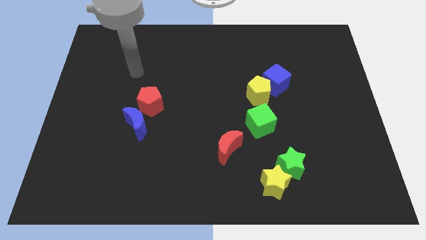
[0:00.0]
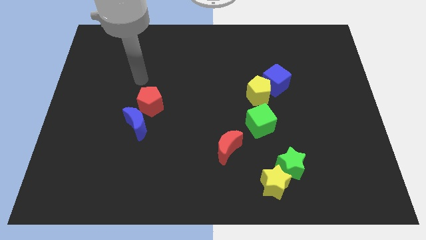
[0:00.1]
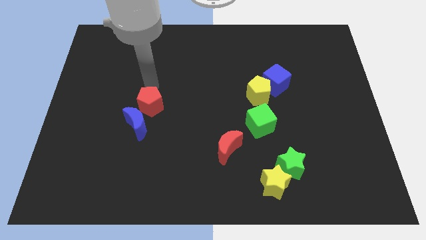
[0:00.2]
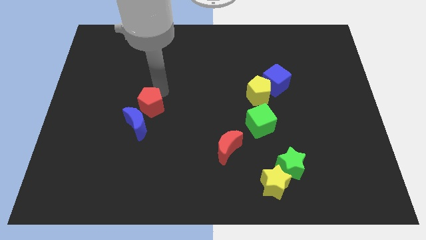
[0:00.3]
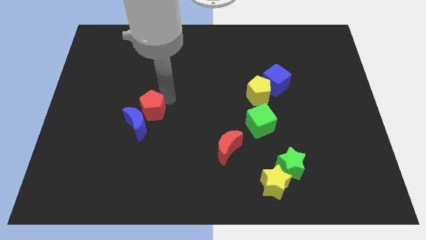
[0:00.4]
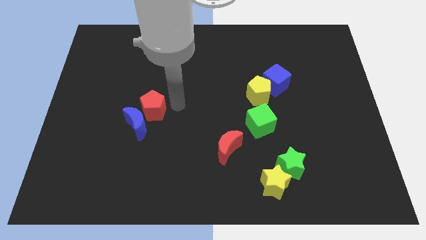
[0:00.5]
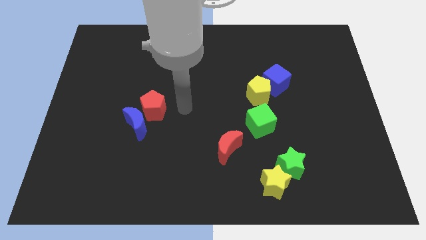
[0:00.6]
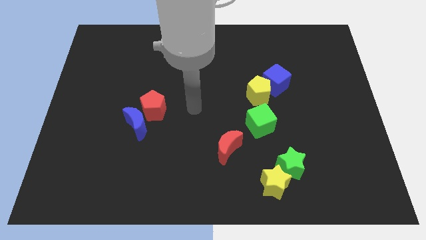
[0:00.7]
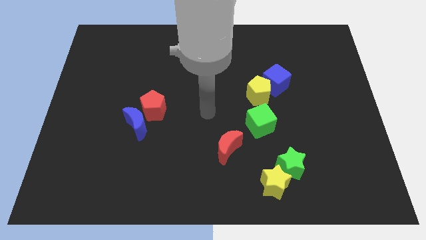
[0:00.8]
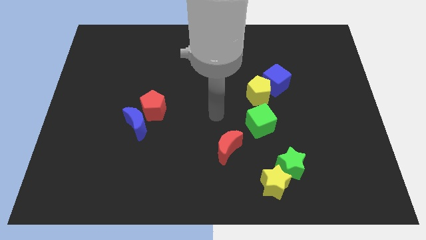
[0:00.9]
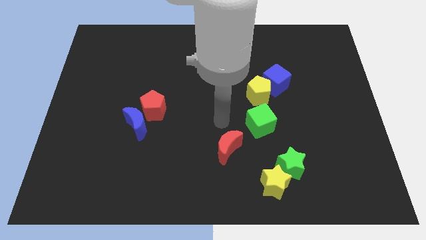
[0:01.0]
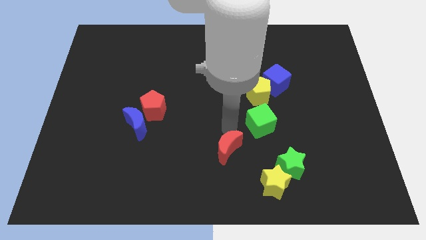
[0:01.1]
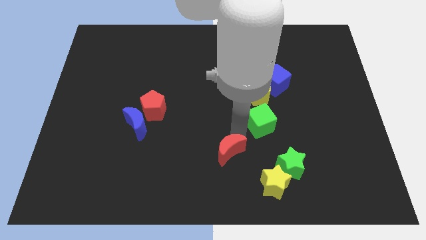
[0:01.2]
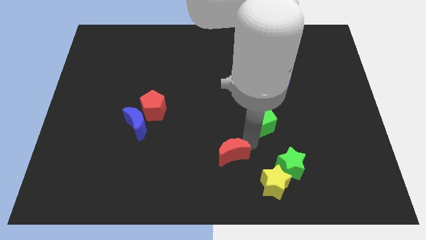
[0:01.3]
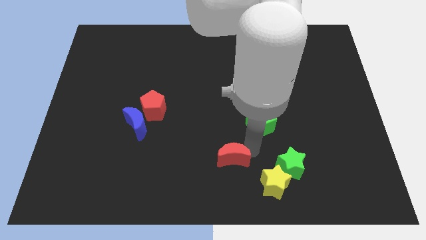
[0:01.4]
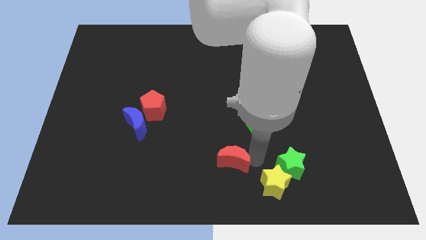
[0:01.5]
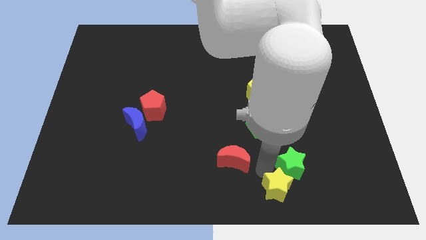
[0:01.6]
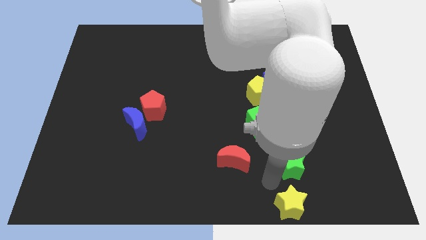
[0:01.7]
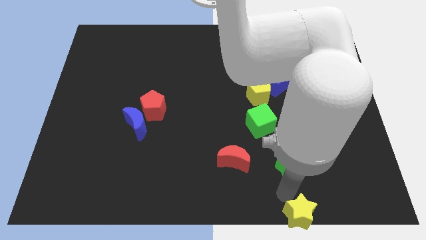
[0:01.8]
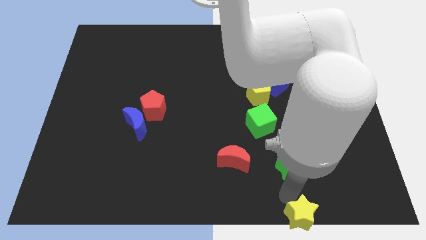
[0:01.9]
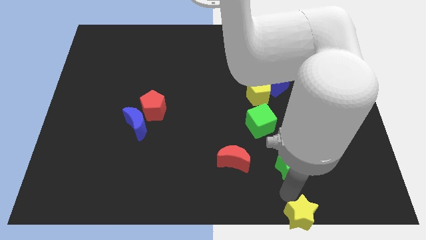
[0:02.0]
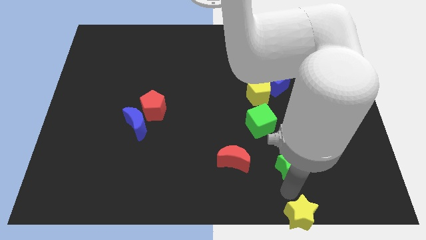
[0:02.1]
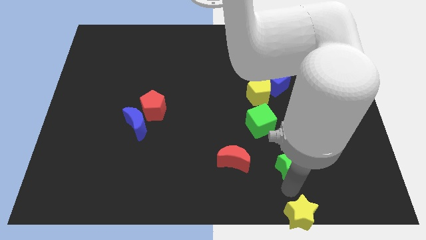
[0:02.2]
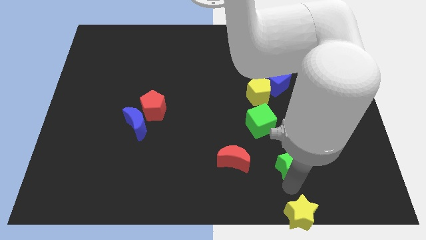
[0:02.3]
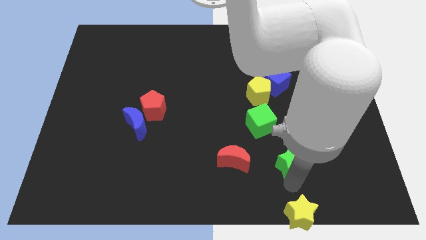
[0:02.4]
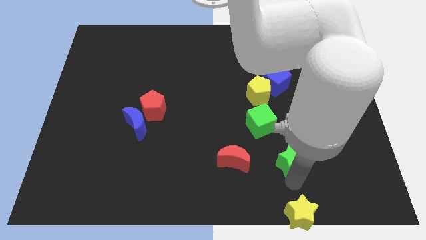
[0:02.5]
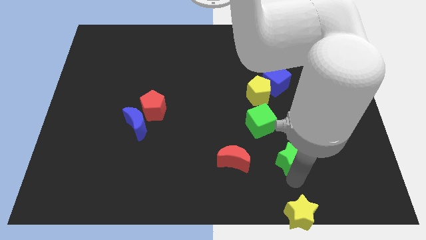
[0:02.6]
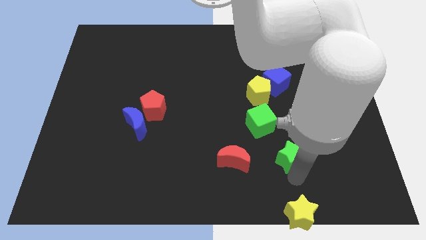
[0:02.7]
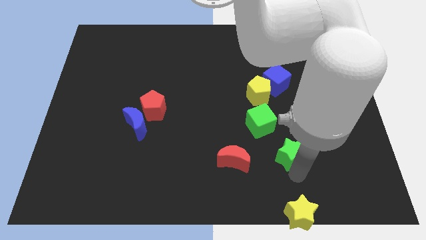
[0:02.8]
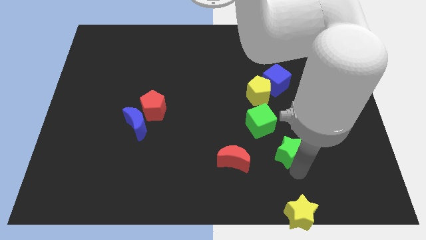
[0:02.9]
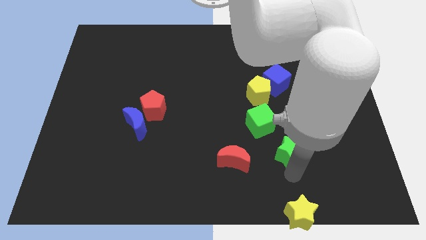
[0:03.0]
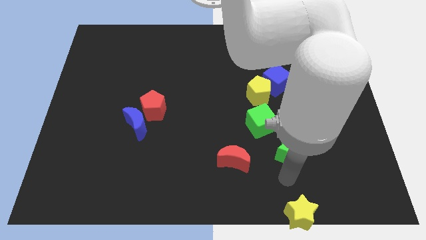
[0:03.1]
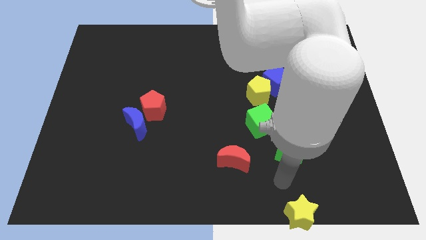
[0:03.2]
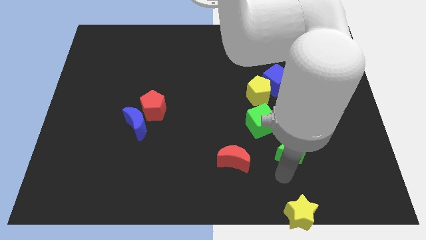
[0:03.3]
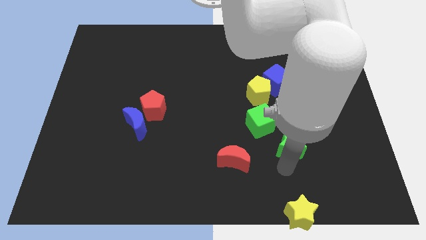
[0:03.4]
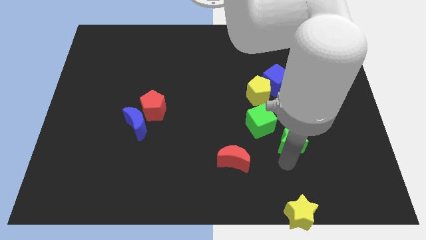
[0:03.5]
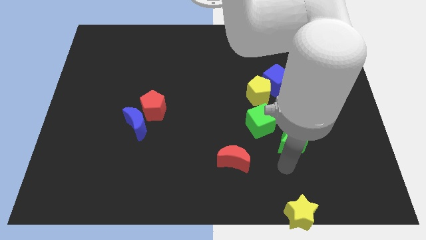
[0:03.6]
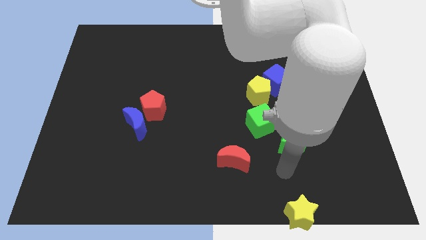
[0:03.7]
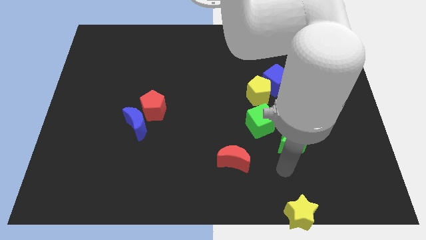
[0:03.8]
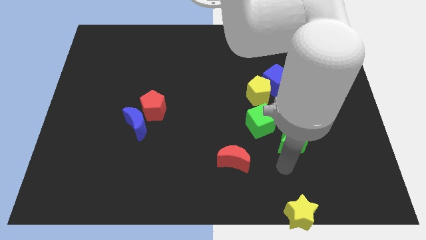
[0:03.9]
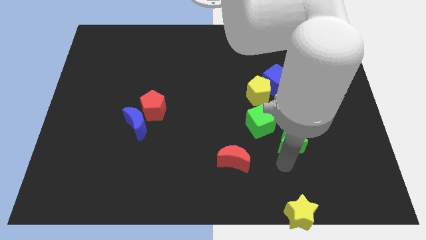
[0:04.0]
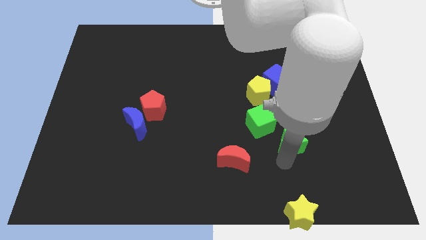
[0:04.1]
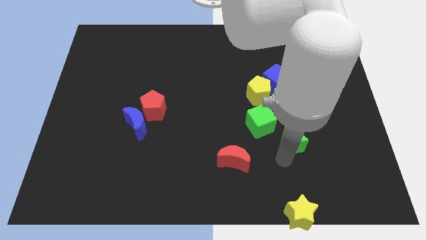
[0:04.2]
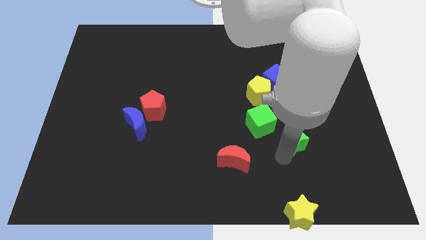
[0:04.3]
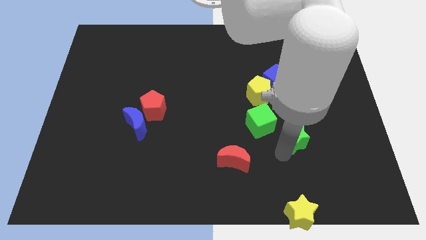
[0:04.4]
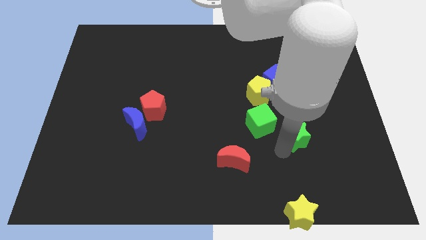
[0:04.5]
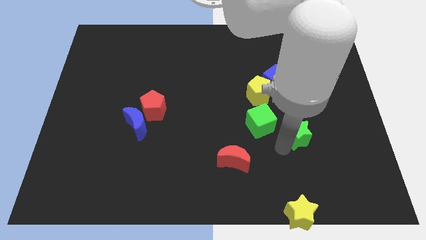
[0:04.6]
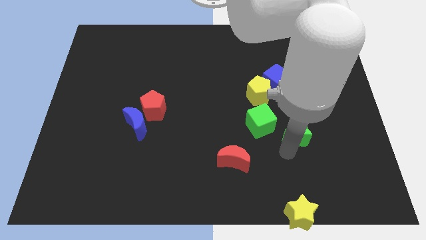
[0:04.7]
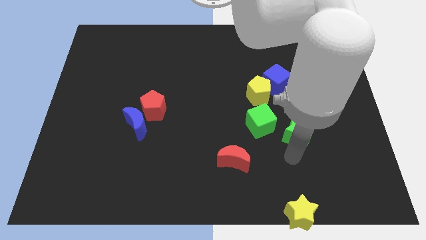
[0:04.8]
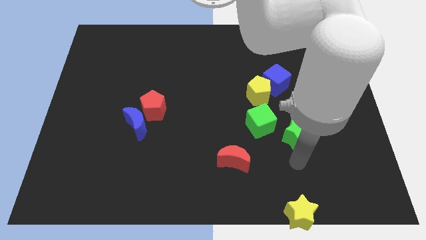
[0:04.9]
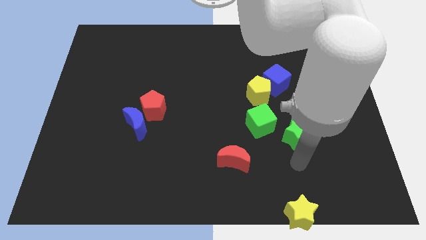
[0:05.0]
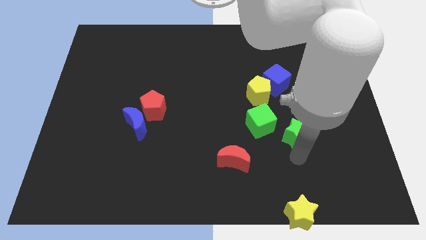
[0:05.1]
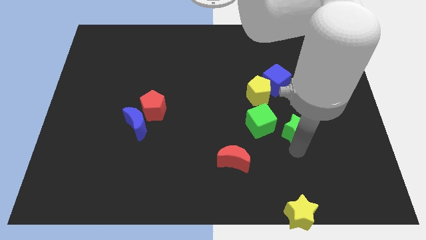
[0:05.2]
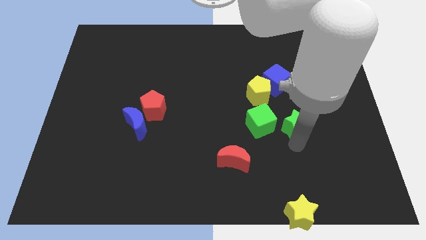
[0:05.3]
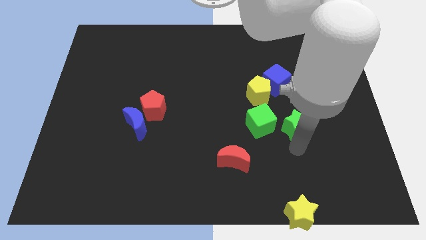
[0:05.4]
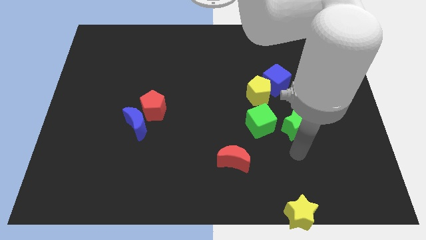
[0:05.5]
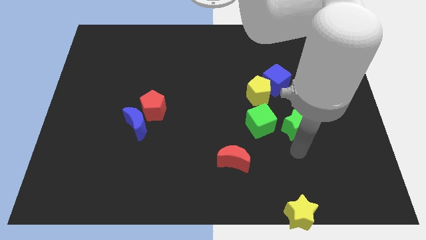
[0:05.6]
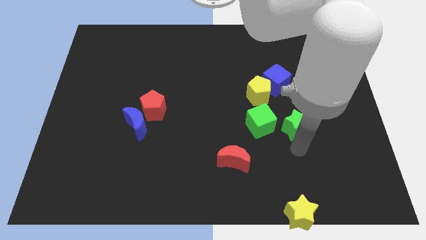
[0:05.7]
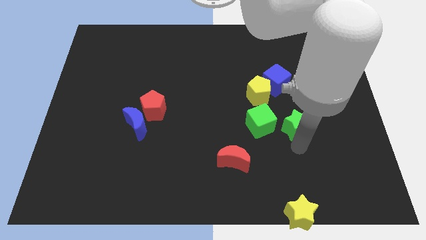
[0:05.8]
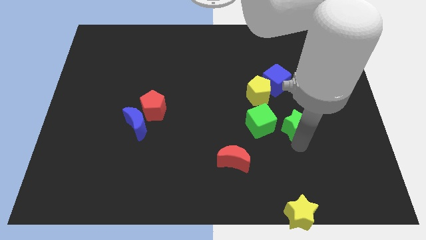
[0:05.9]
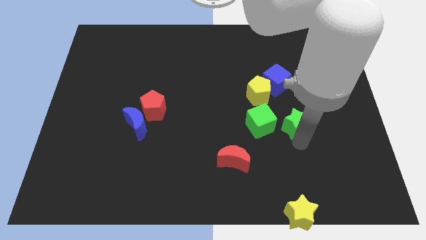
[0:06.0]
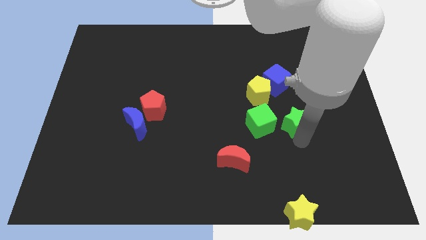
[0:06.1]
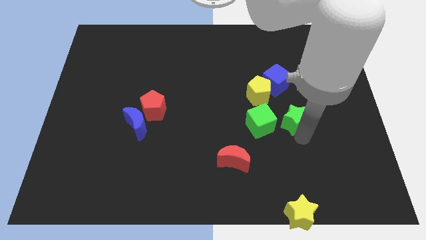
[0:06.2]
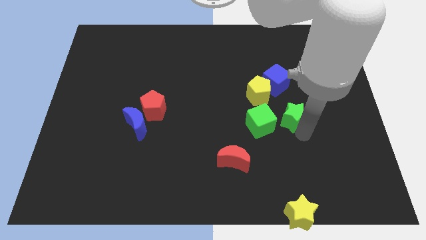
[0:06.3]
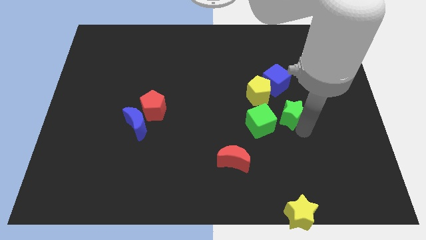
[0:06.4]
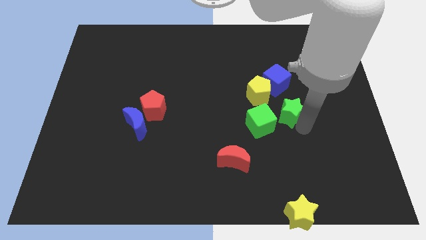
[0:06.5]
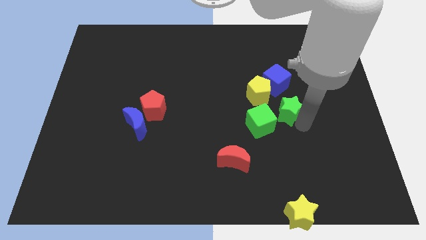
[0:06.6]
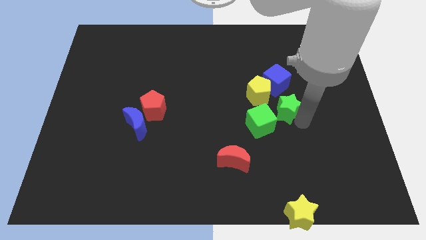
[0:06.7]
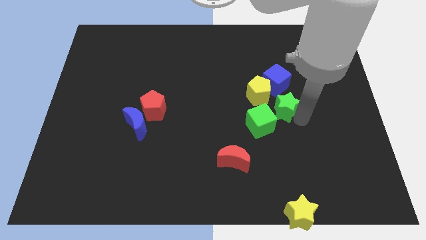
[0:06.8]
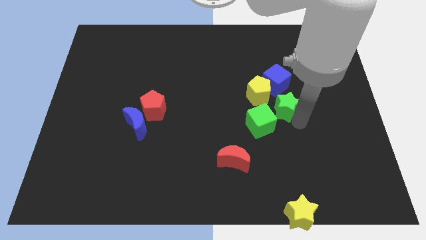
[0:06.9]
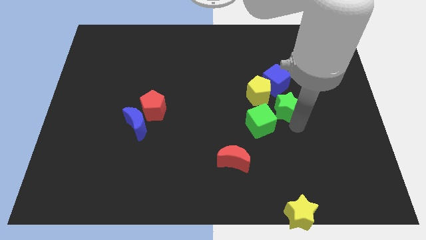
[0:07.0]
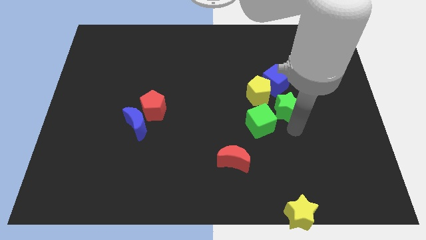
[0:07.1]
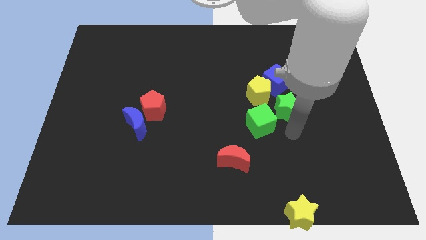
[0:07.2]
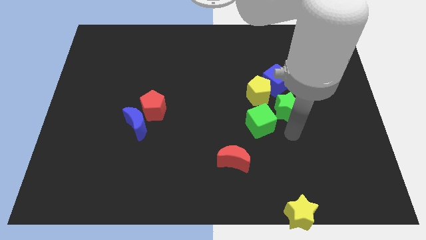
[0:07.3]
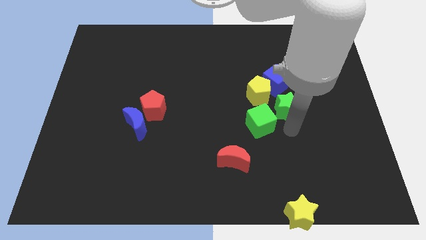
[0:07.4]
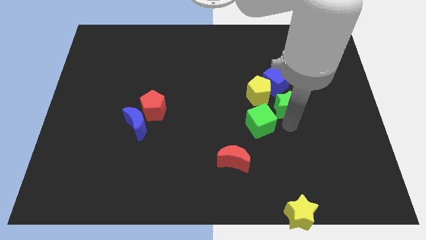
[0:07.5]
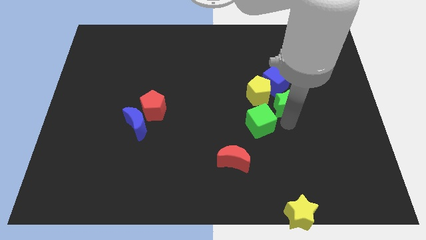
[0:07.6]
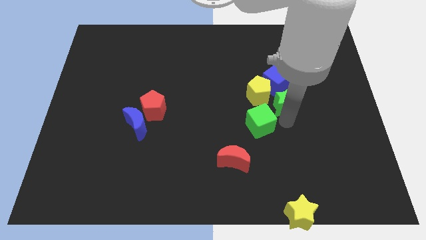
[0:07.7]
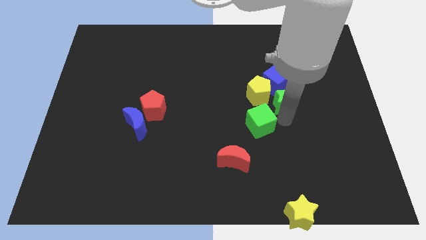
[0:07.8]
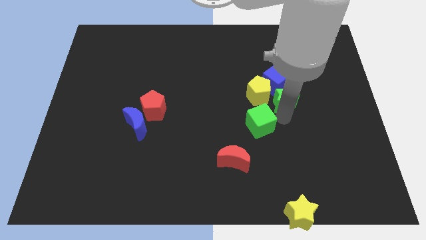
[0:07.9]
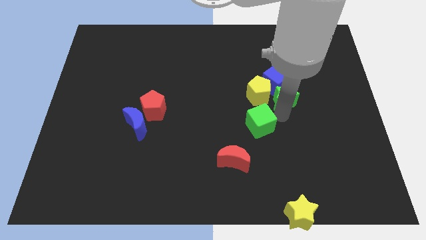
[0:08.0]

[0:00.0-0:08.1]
slide the green star towards the blue cube
